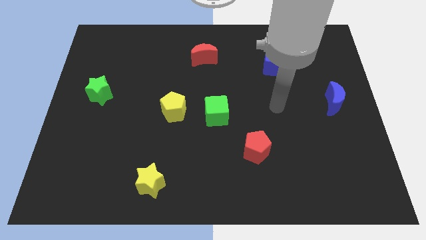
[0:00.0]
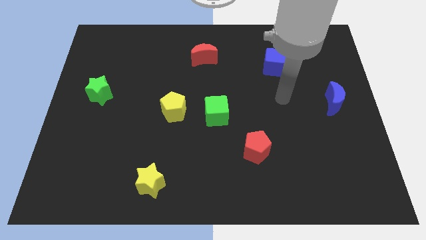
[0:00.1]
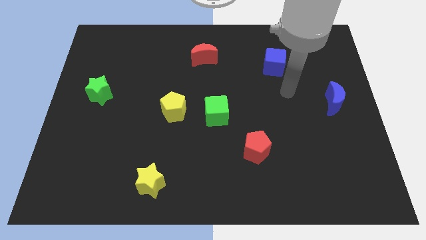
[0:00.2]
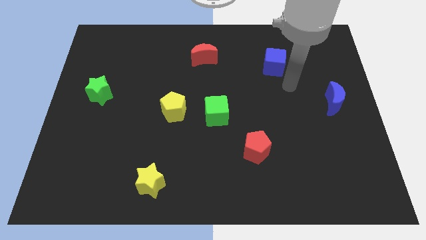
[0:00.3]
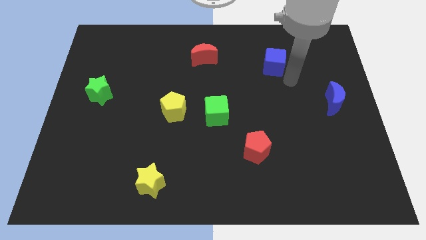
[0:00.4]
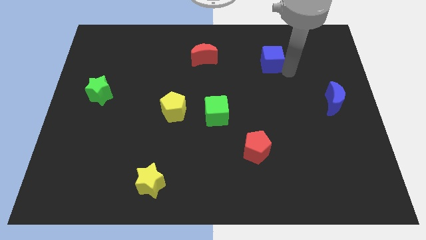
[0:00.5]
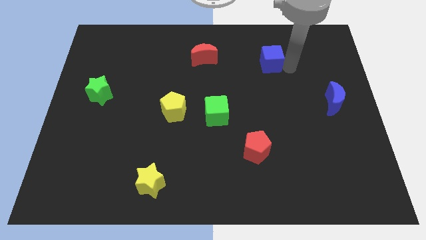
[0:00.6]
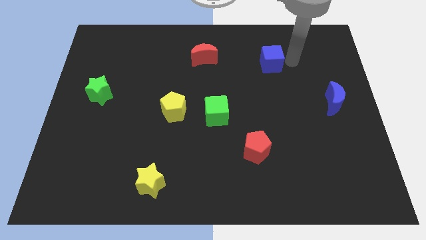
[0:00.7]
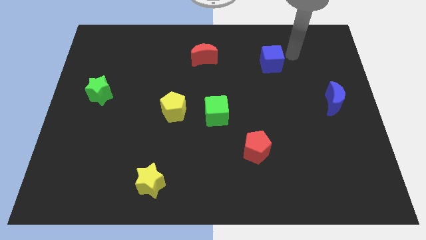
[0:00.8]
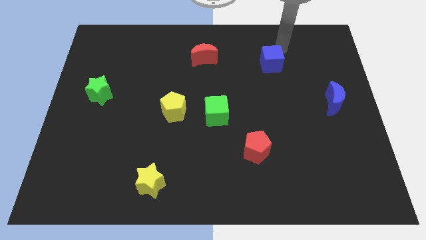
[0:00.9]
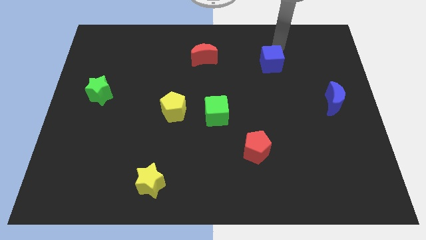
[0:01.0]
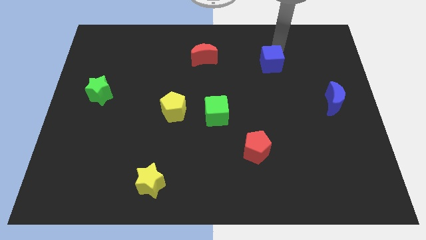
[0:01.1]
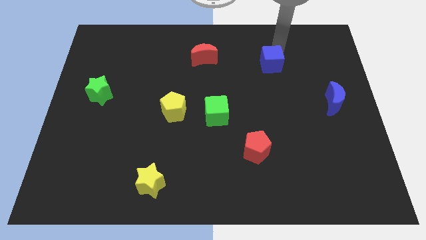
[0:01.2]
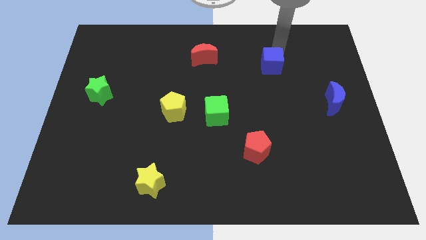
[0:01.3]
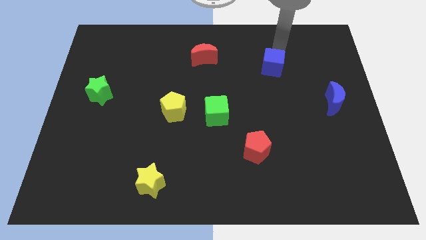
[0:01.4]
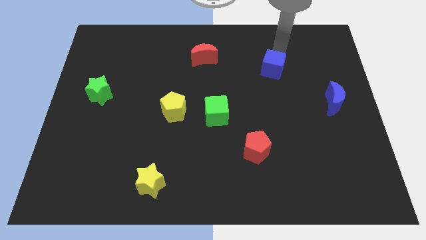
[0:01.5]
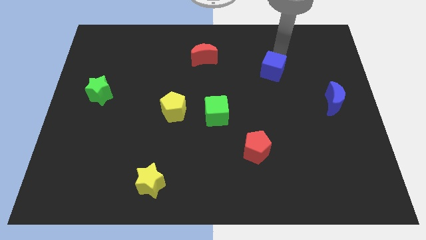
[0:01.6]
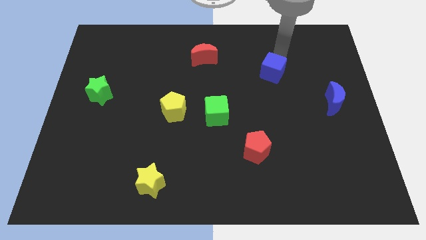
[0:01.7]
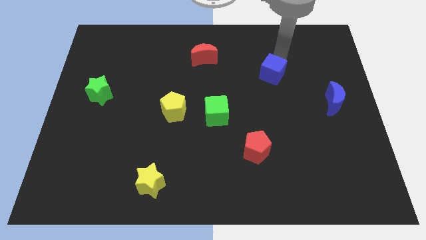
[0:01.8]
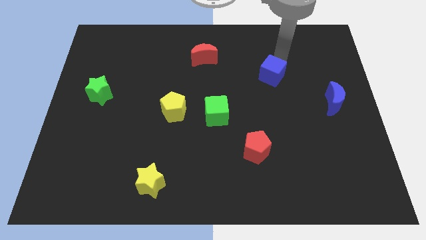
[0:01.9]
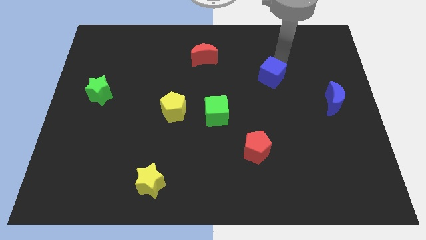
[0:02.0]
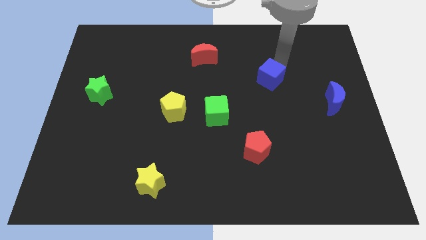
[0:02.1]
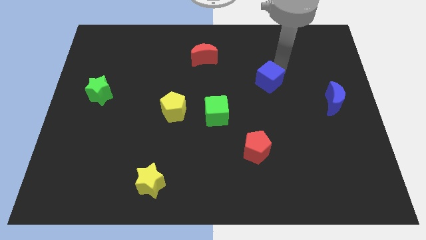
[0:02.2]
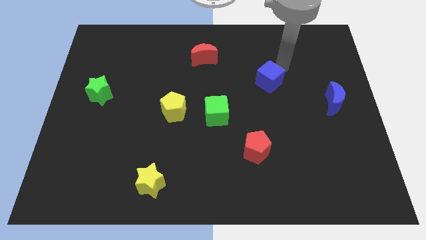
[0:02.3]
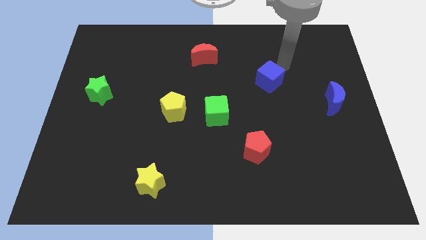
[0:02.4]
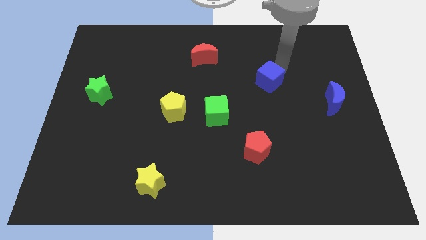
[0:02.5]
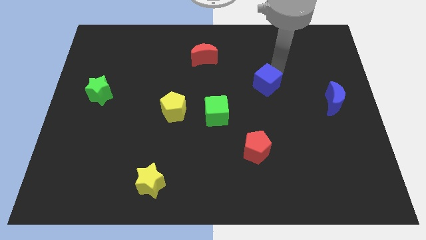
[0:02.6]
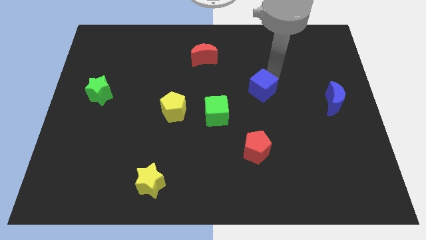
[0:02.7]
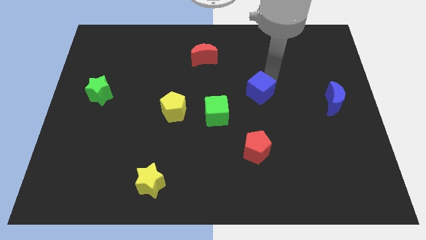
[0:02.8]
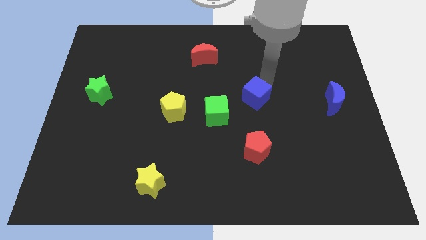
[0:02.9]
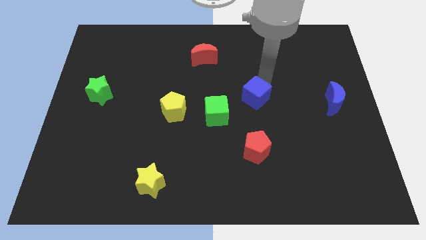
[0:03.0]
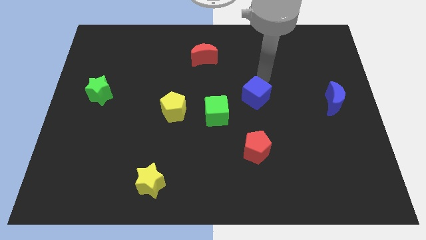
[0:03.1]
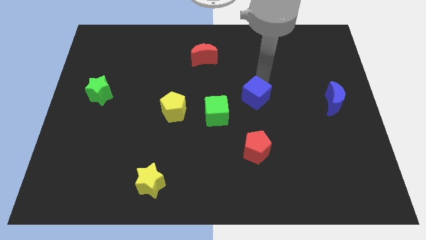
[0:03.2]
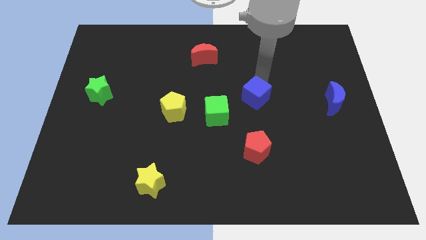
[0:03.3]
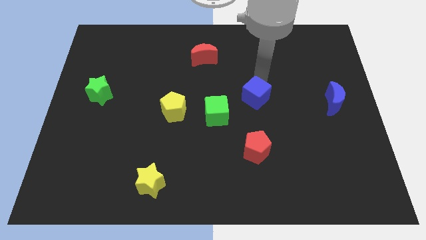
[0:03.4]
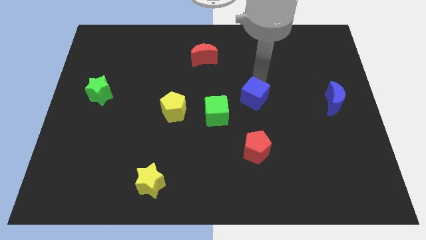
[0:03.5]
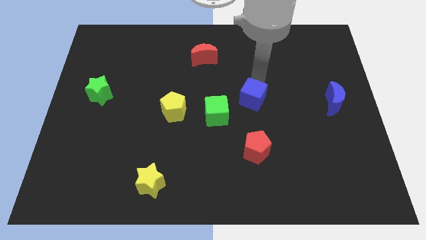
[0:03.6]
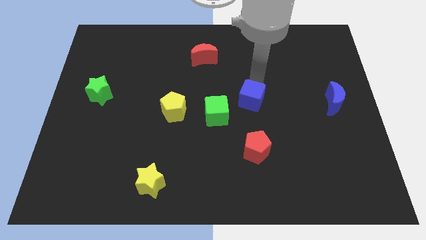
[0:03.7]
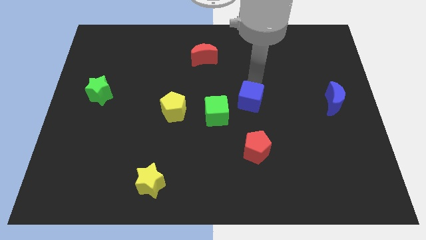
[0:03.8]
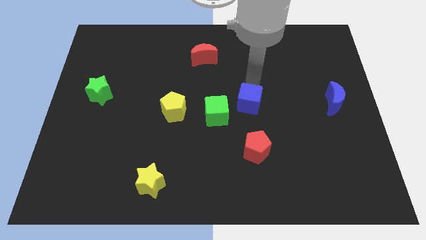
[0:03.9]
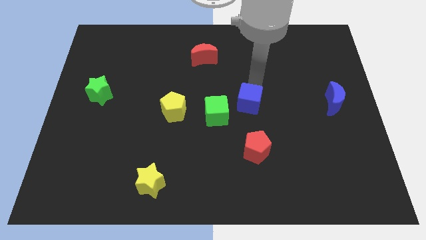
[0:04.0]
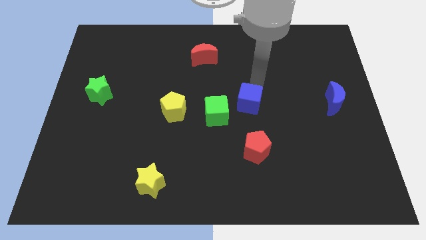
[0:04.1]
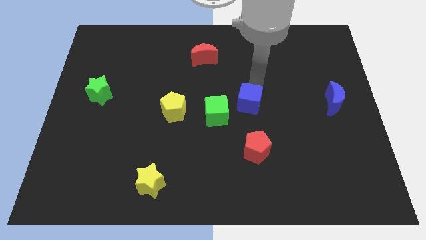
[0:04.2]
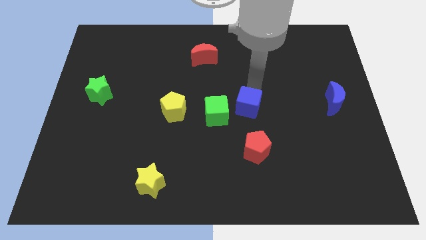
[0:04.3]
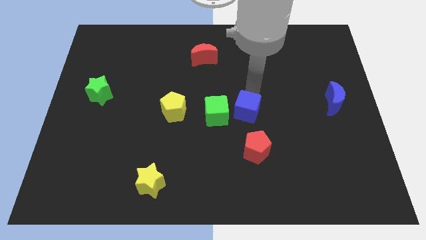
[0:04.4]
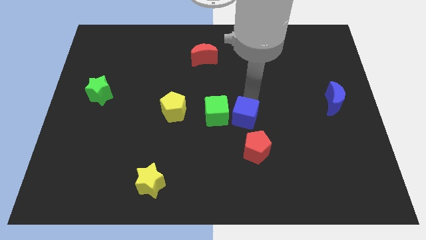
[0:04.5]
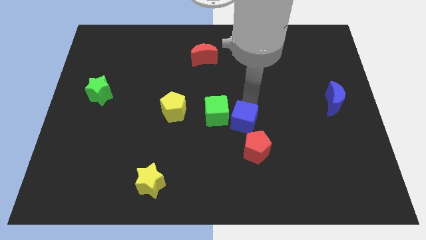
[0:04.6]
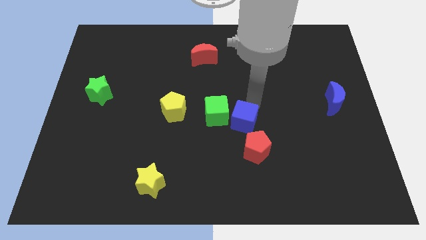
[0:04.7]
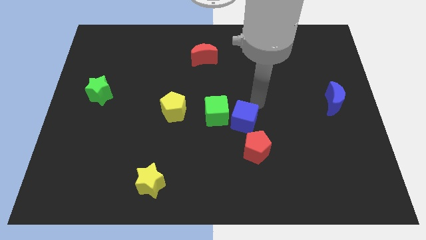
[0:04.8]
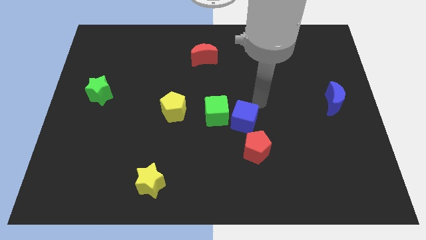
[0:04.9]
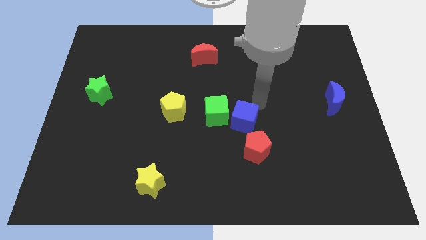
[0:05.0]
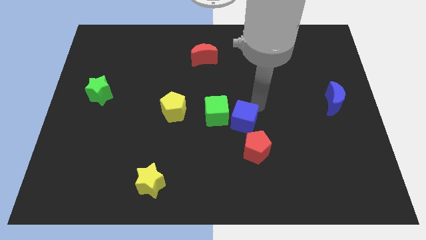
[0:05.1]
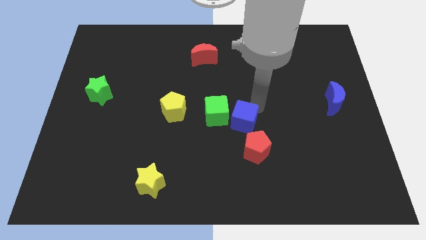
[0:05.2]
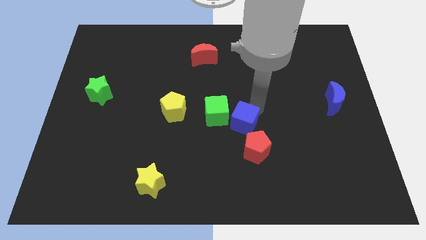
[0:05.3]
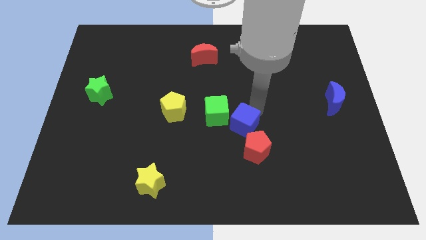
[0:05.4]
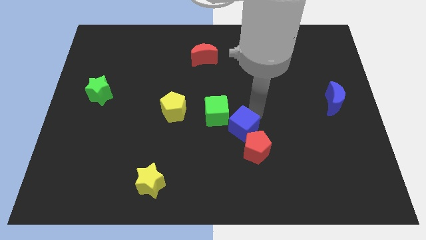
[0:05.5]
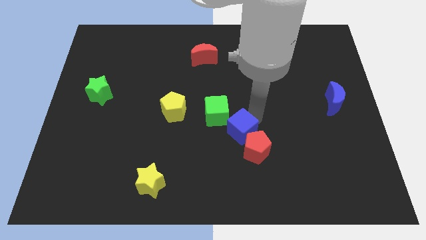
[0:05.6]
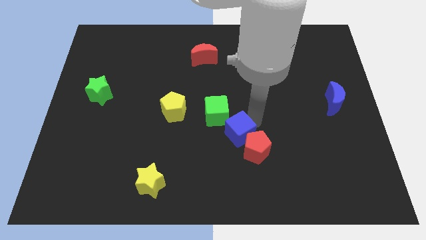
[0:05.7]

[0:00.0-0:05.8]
move the blue cube to the left side of the red pentagon

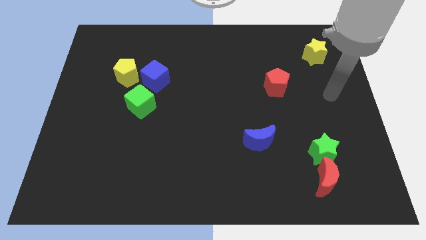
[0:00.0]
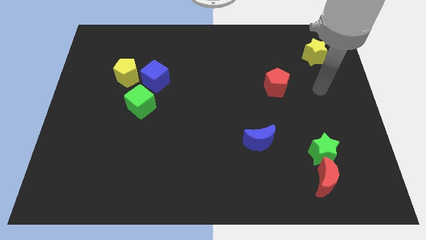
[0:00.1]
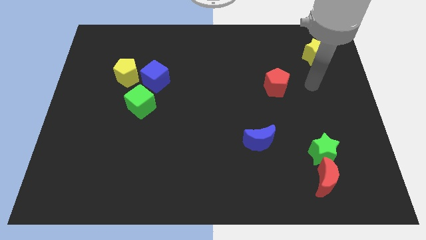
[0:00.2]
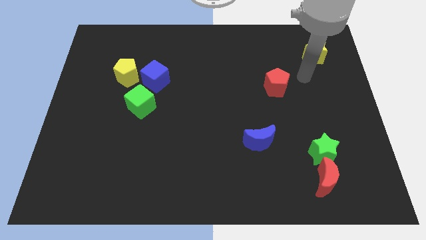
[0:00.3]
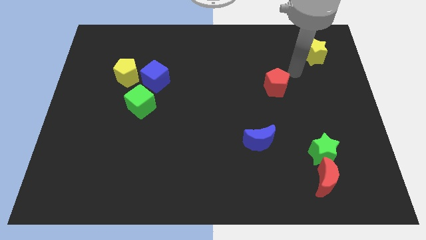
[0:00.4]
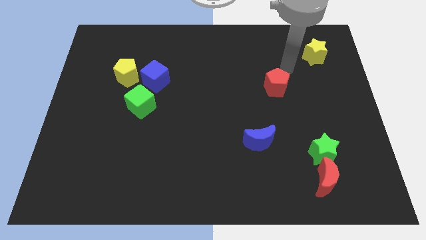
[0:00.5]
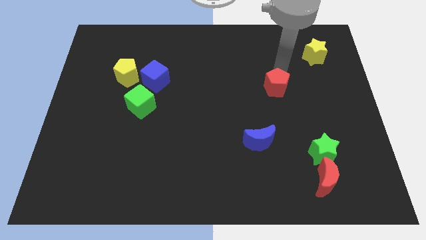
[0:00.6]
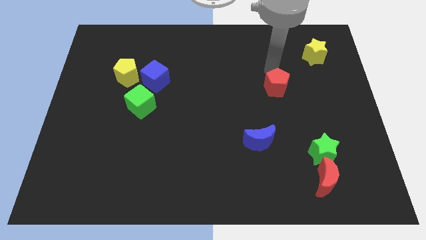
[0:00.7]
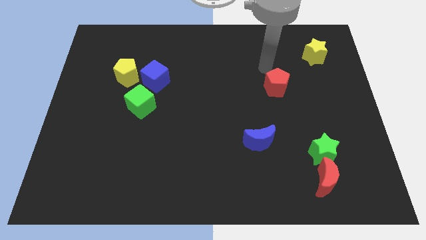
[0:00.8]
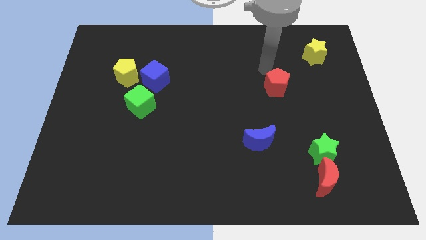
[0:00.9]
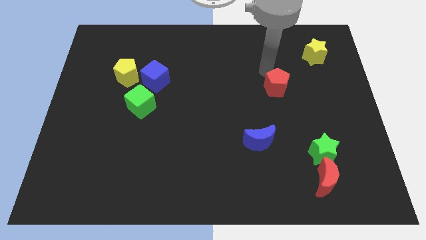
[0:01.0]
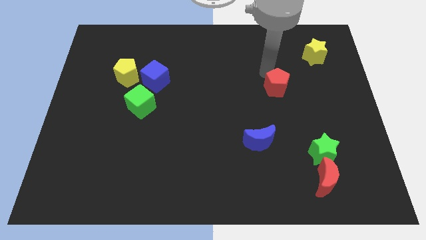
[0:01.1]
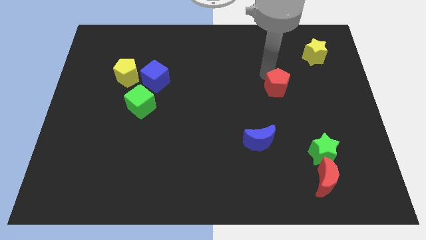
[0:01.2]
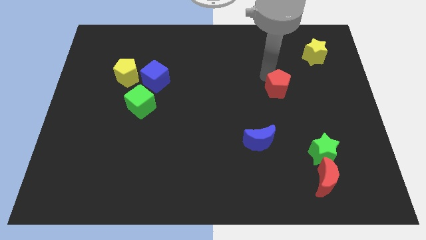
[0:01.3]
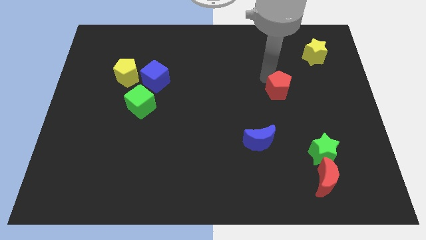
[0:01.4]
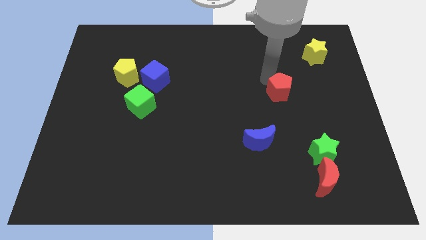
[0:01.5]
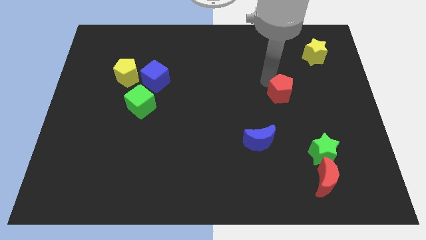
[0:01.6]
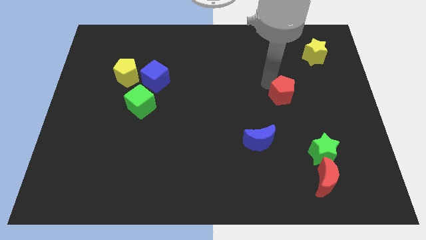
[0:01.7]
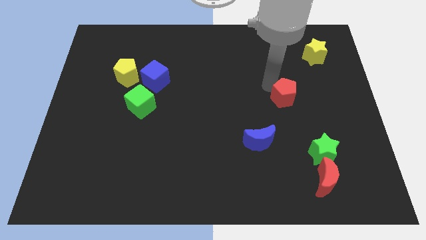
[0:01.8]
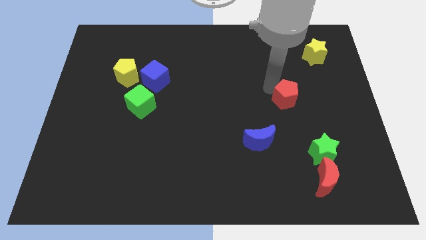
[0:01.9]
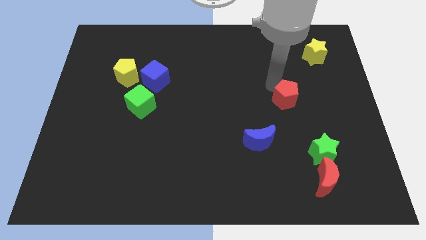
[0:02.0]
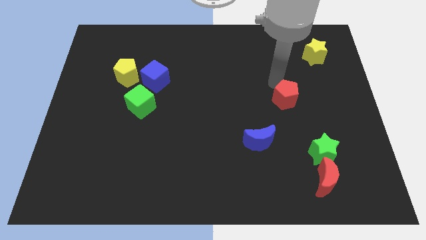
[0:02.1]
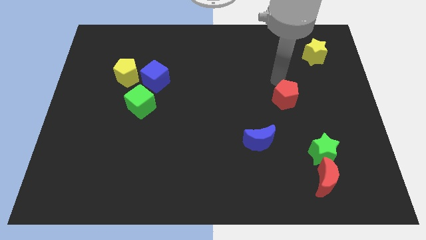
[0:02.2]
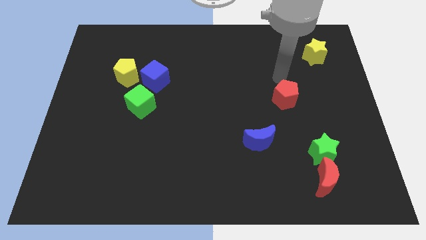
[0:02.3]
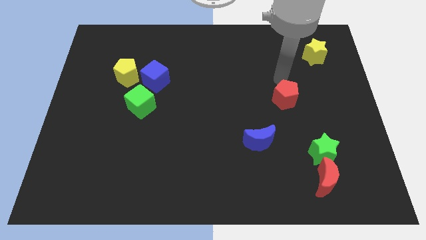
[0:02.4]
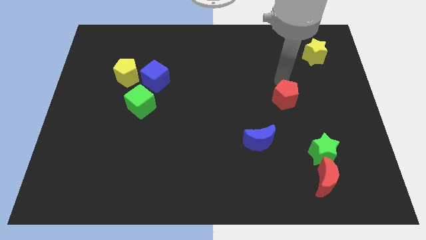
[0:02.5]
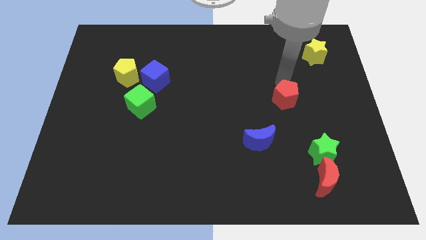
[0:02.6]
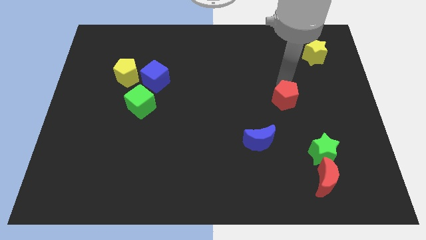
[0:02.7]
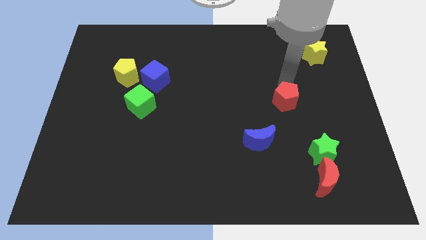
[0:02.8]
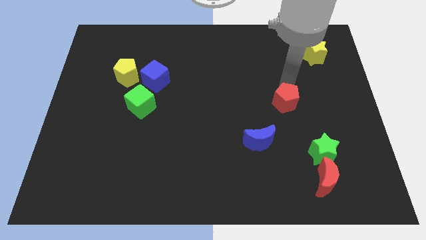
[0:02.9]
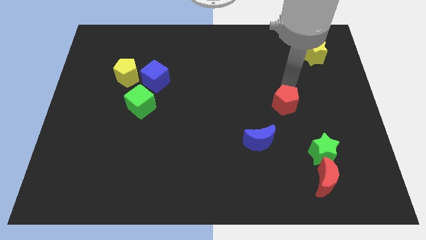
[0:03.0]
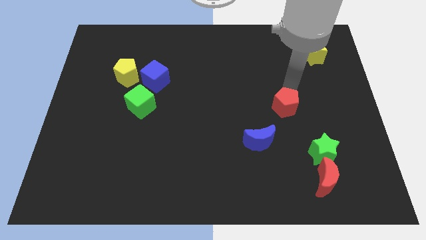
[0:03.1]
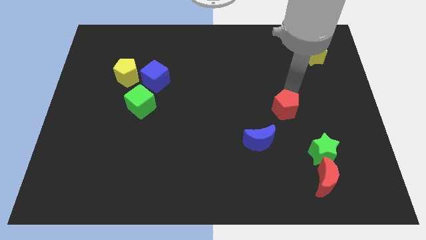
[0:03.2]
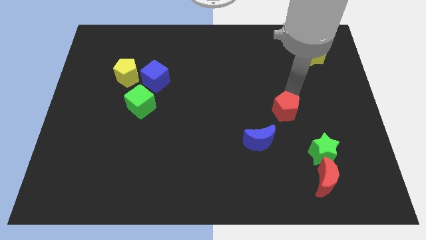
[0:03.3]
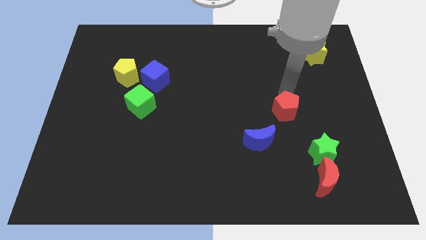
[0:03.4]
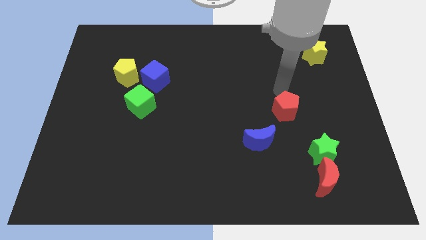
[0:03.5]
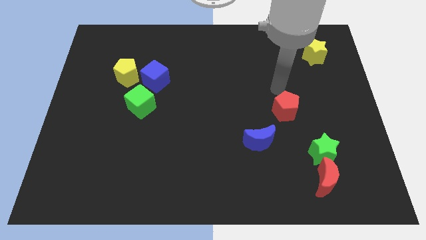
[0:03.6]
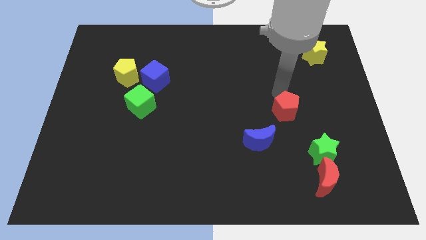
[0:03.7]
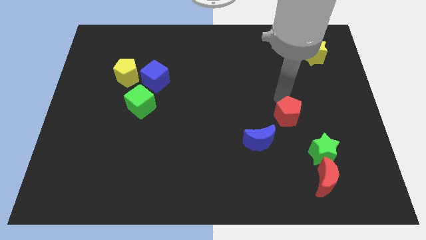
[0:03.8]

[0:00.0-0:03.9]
slide the red pentagon to the top left of the green star
